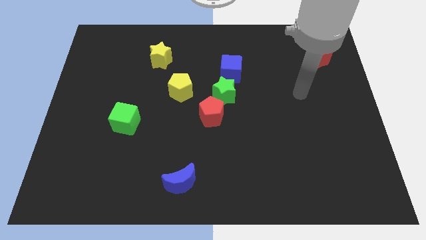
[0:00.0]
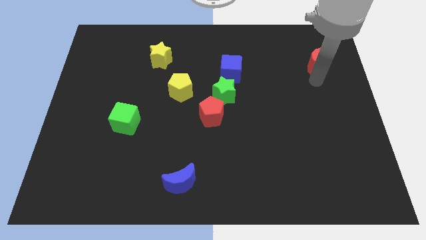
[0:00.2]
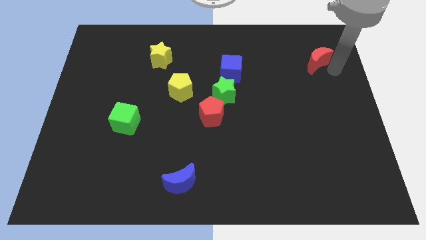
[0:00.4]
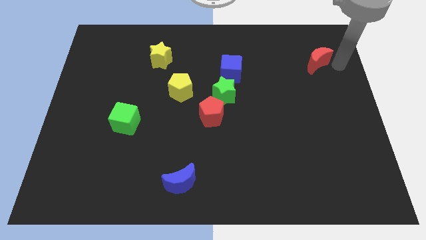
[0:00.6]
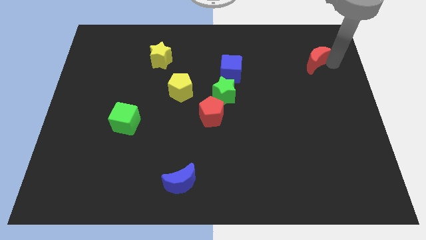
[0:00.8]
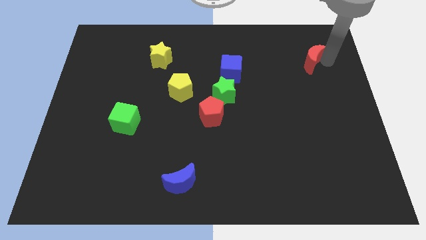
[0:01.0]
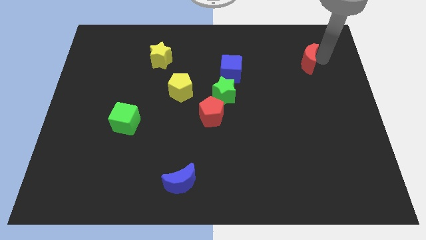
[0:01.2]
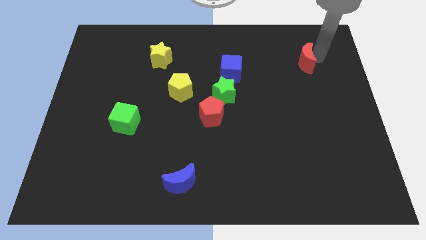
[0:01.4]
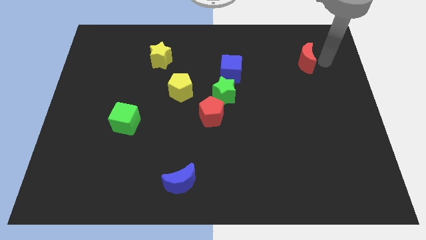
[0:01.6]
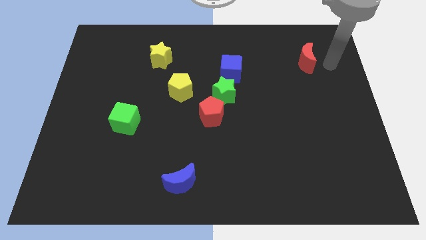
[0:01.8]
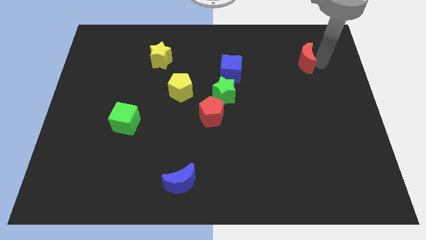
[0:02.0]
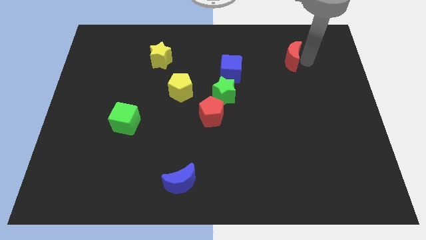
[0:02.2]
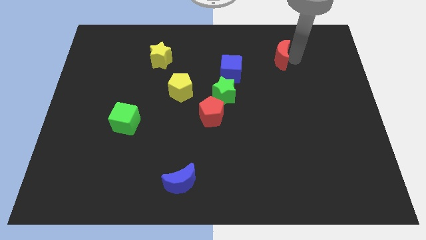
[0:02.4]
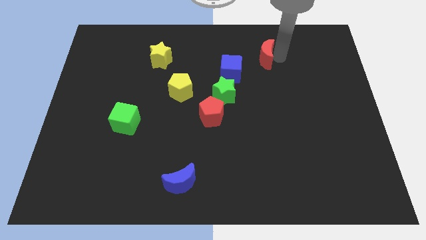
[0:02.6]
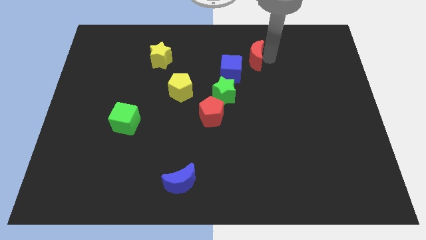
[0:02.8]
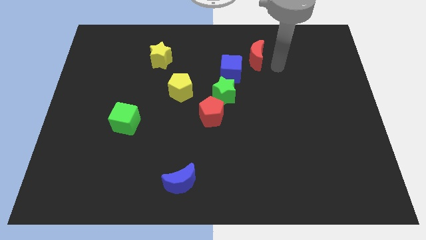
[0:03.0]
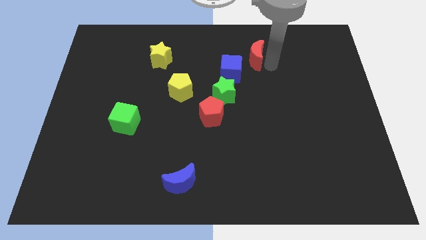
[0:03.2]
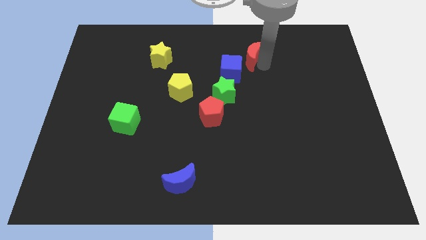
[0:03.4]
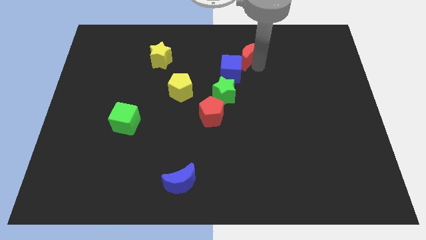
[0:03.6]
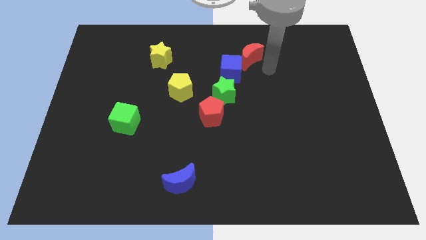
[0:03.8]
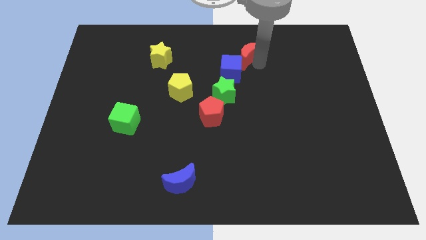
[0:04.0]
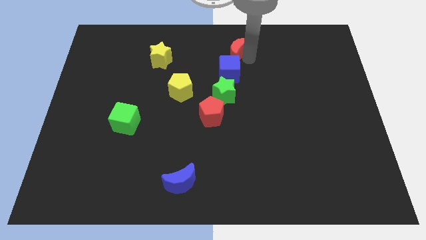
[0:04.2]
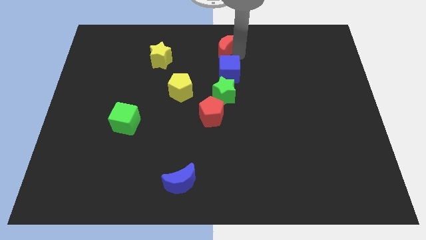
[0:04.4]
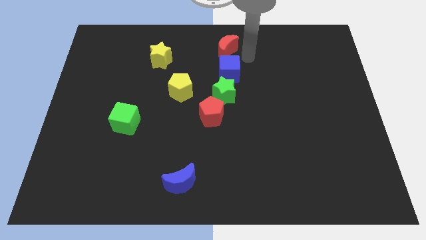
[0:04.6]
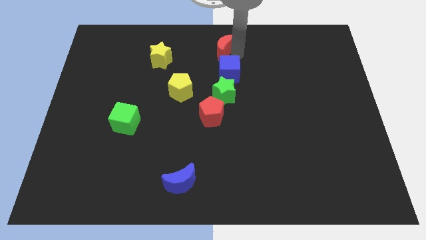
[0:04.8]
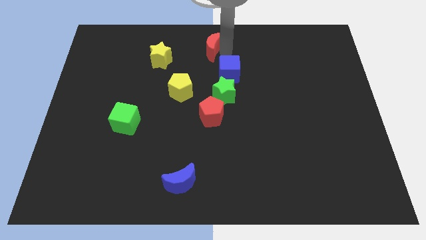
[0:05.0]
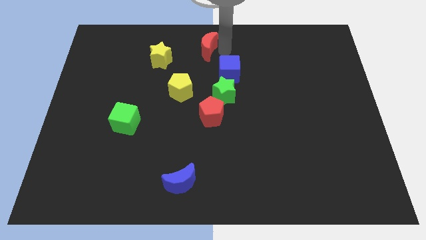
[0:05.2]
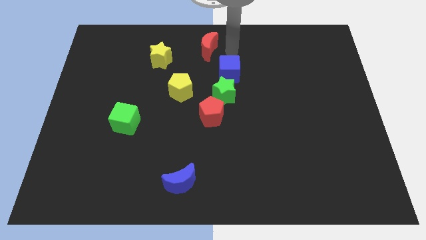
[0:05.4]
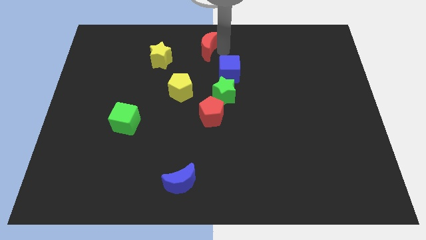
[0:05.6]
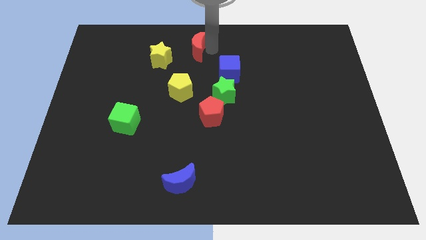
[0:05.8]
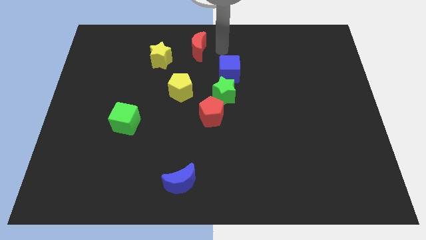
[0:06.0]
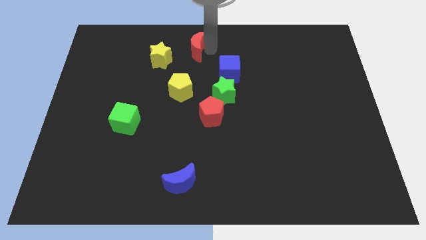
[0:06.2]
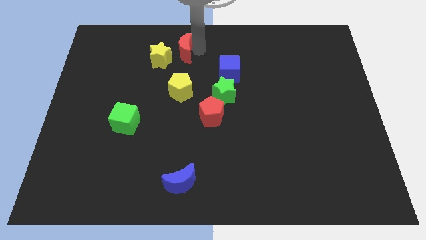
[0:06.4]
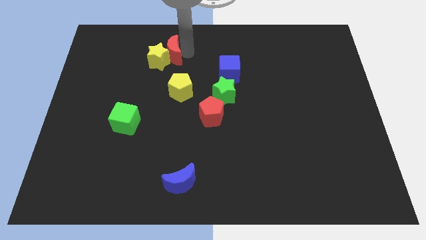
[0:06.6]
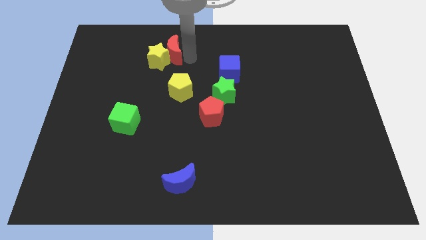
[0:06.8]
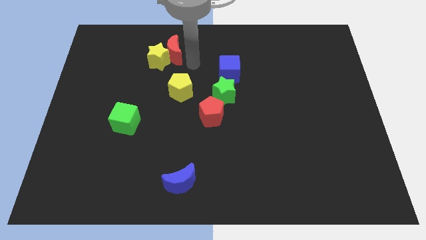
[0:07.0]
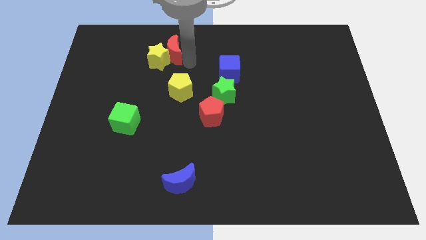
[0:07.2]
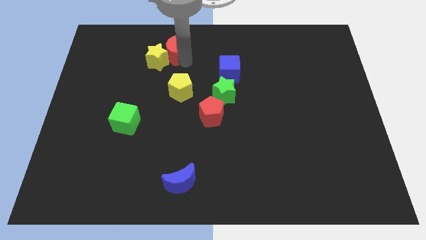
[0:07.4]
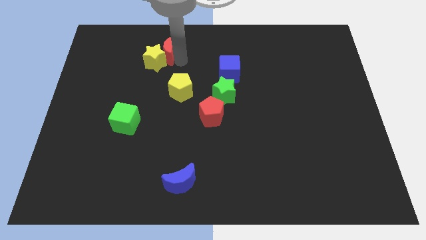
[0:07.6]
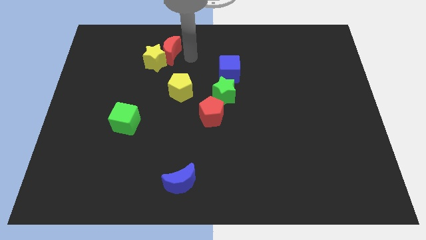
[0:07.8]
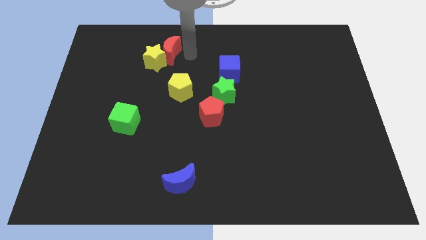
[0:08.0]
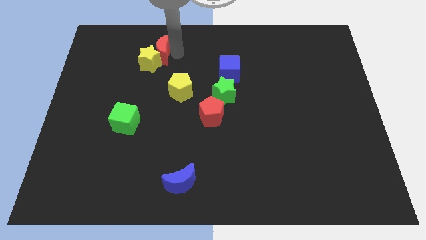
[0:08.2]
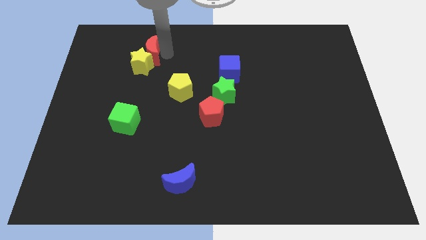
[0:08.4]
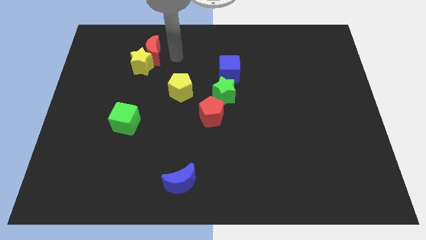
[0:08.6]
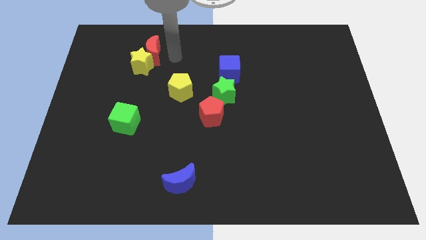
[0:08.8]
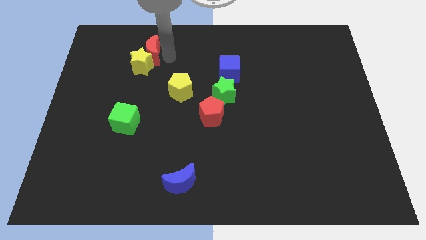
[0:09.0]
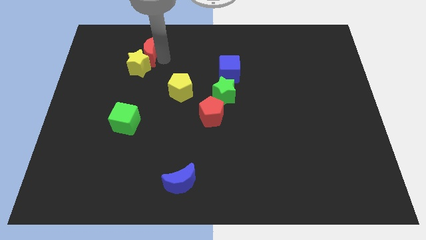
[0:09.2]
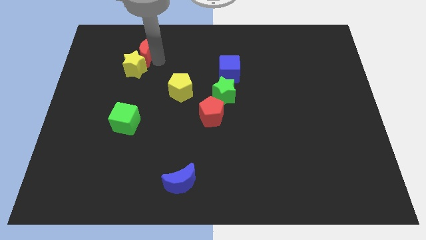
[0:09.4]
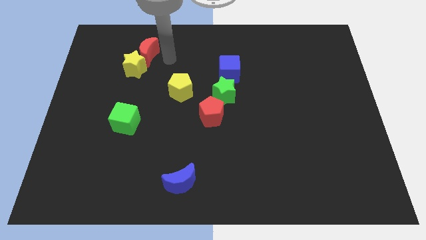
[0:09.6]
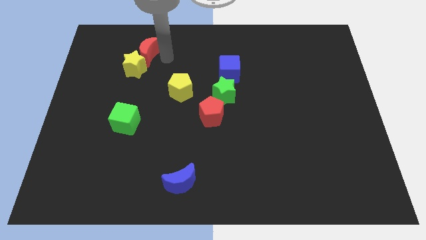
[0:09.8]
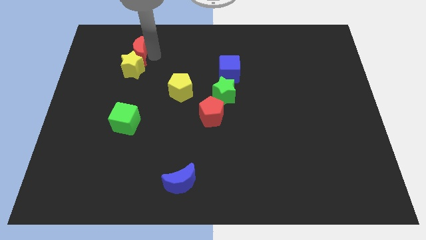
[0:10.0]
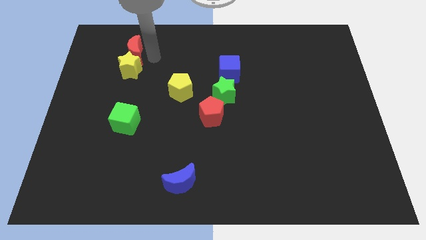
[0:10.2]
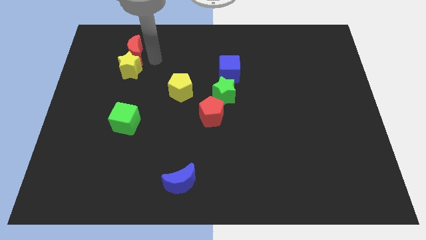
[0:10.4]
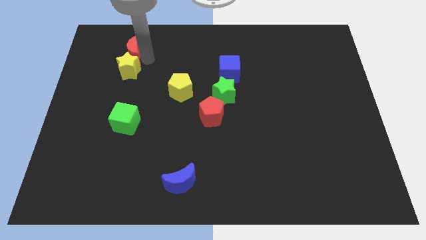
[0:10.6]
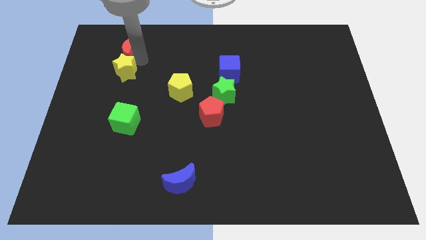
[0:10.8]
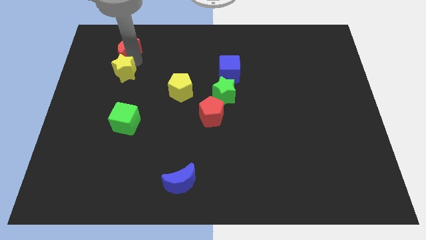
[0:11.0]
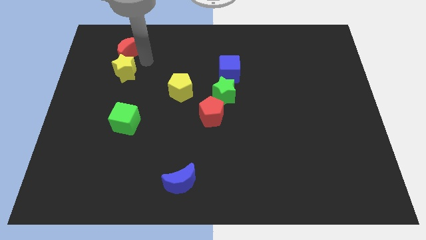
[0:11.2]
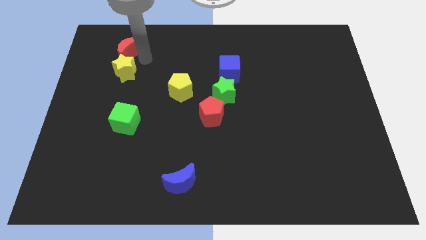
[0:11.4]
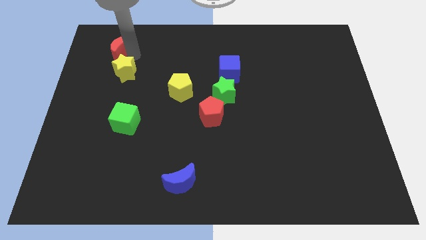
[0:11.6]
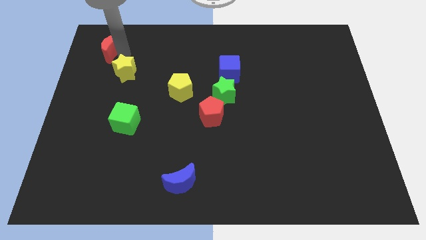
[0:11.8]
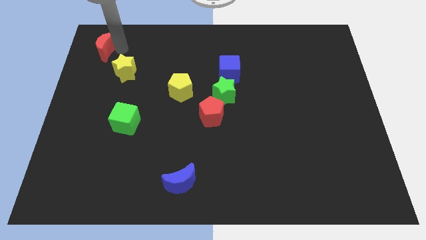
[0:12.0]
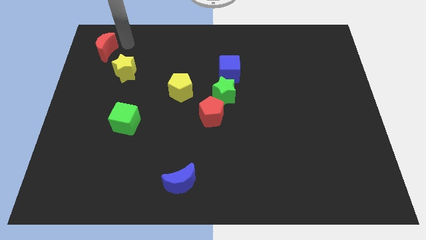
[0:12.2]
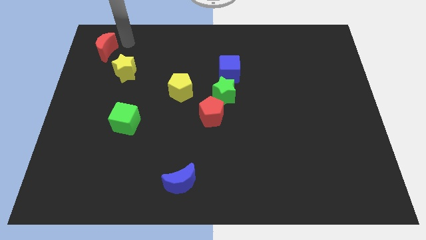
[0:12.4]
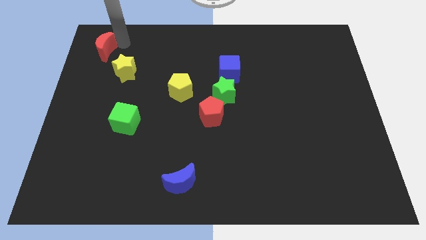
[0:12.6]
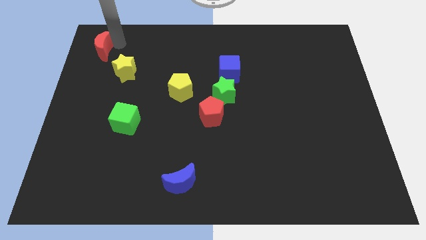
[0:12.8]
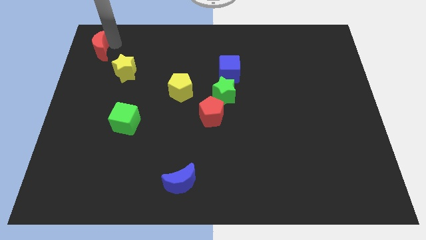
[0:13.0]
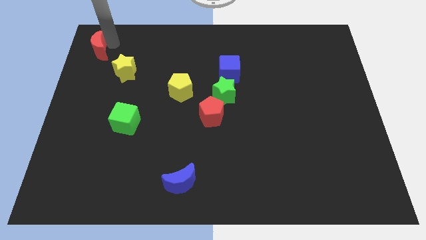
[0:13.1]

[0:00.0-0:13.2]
slide the red moon to the top left
